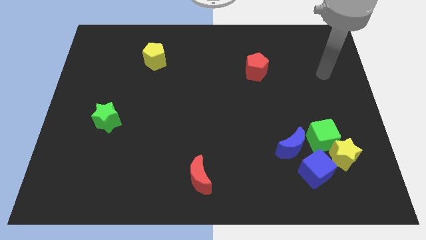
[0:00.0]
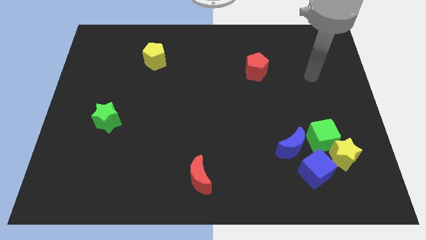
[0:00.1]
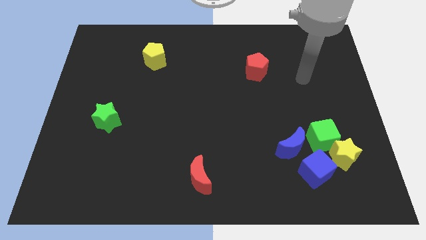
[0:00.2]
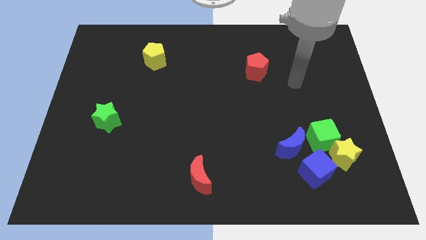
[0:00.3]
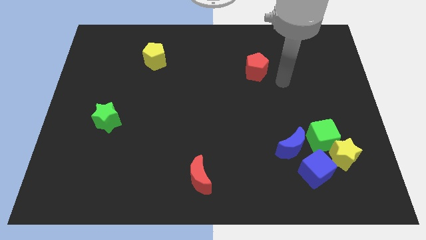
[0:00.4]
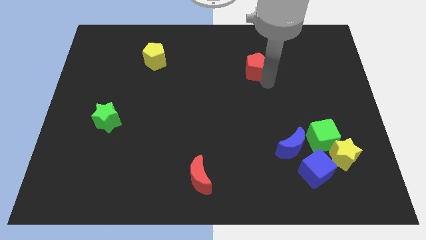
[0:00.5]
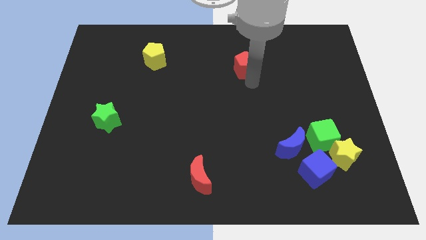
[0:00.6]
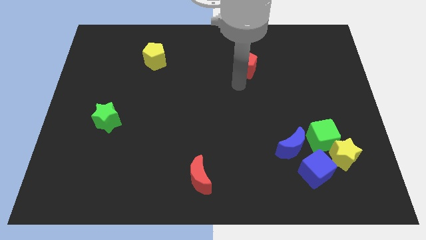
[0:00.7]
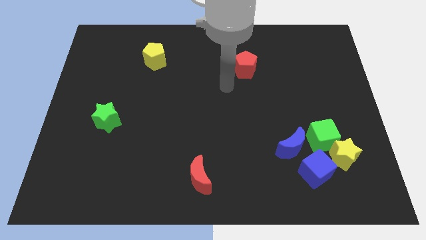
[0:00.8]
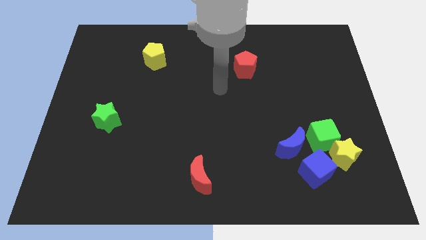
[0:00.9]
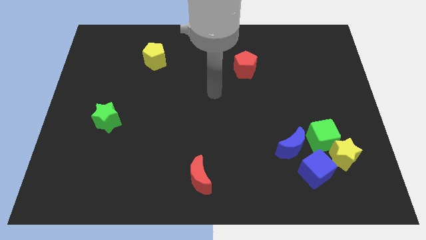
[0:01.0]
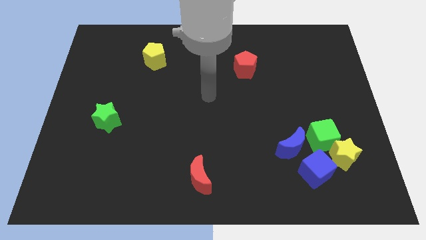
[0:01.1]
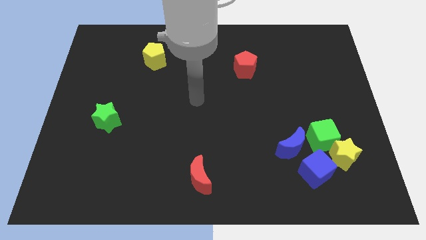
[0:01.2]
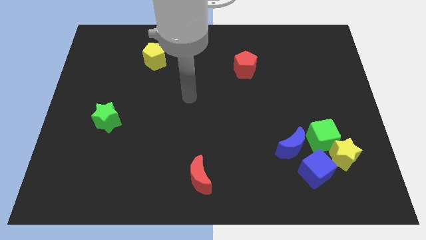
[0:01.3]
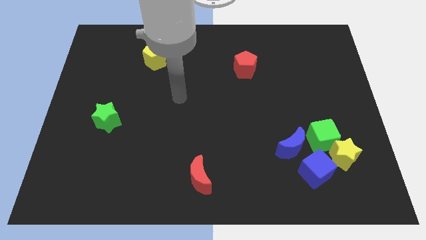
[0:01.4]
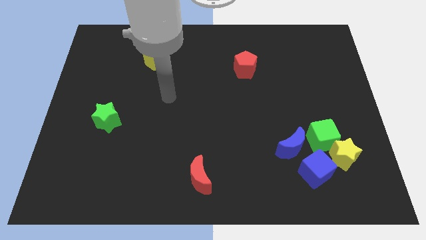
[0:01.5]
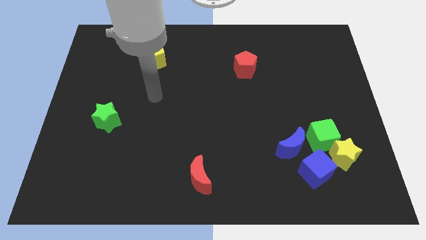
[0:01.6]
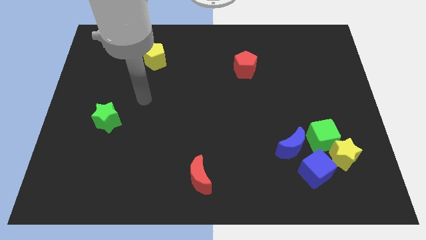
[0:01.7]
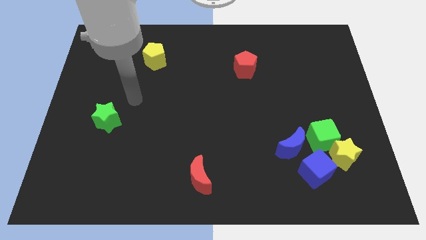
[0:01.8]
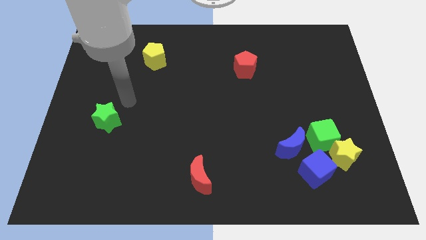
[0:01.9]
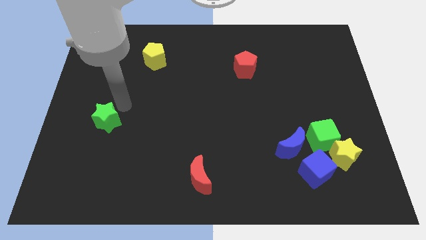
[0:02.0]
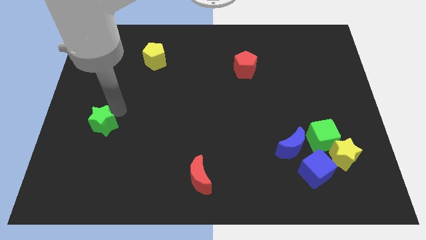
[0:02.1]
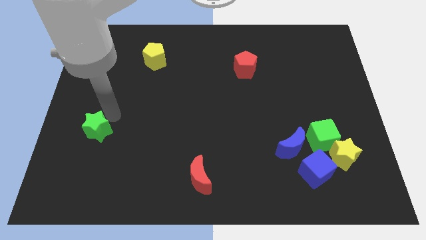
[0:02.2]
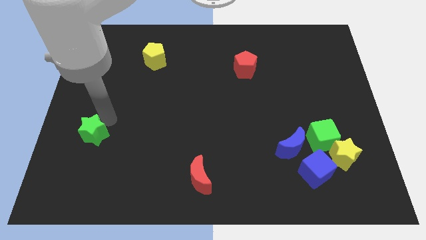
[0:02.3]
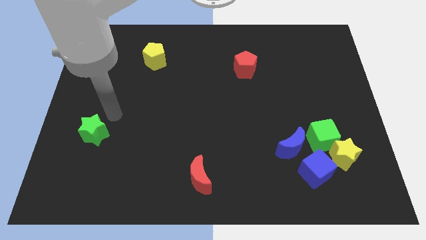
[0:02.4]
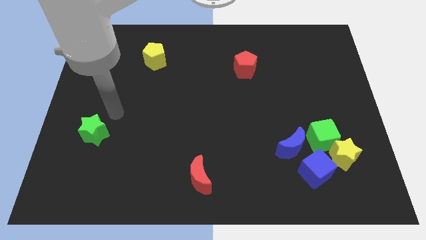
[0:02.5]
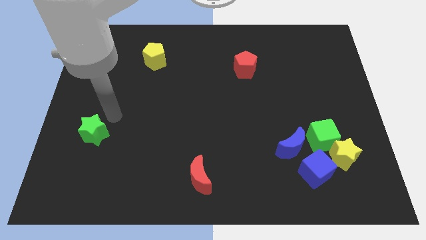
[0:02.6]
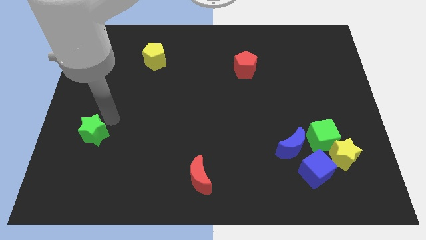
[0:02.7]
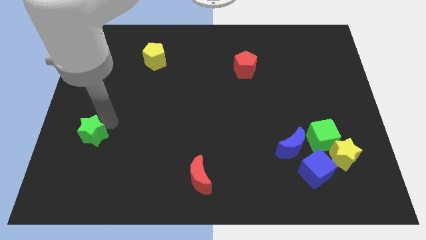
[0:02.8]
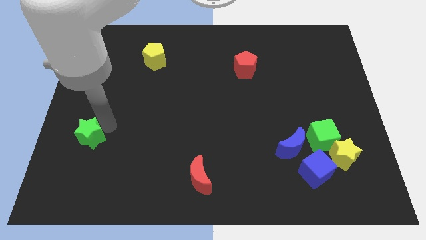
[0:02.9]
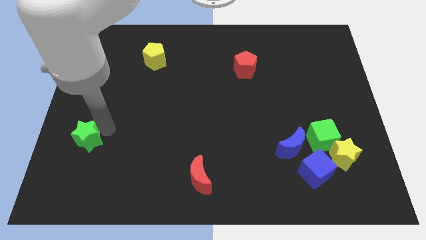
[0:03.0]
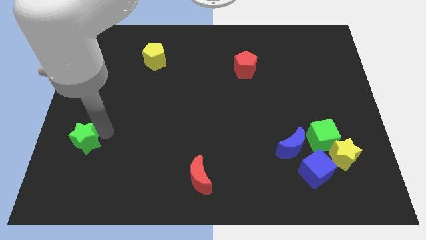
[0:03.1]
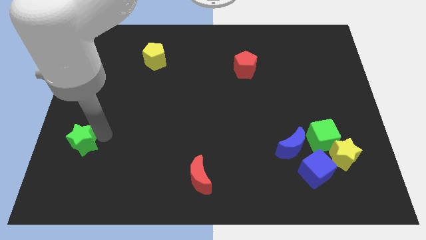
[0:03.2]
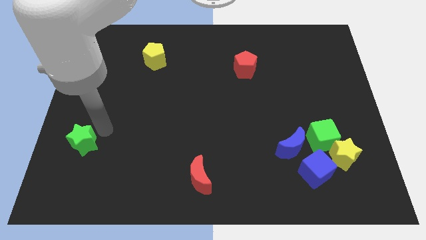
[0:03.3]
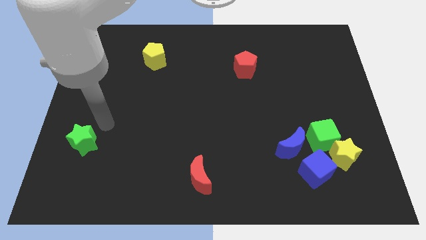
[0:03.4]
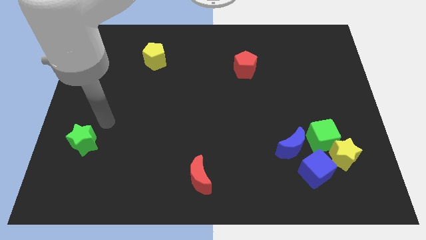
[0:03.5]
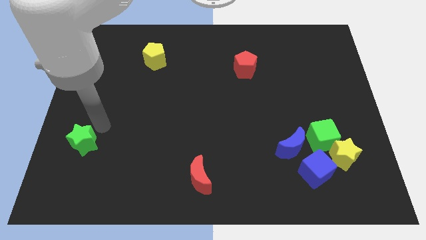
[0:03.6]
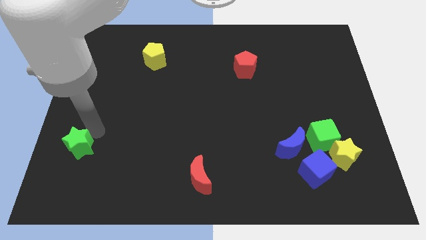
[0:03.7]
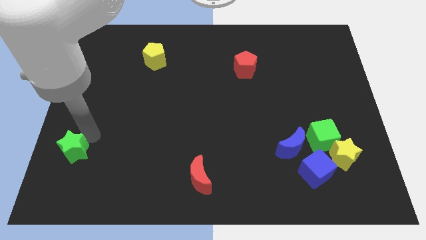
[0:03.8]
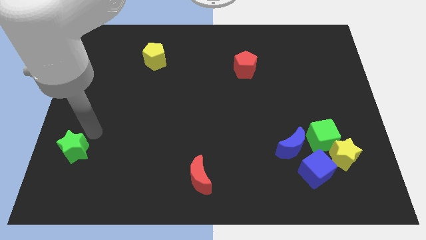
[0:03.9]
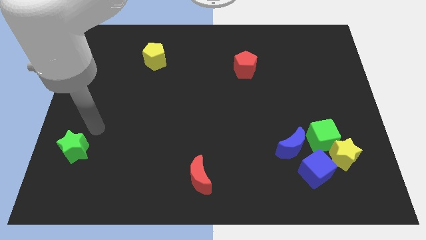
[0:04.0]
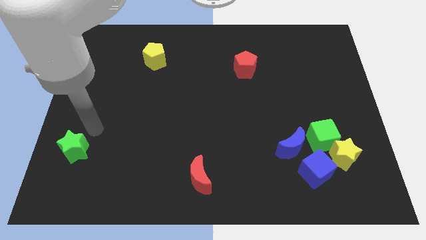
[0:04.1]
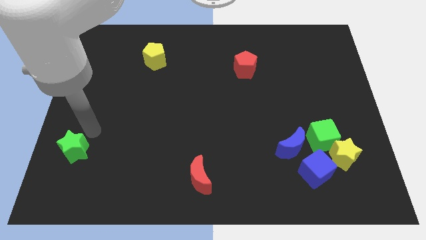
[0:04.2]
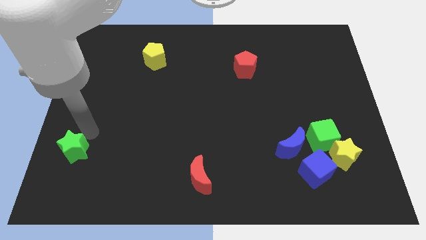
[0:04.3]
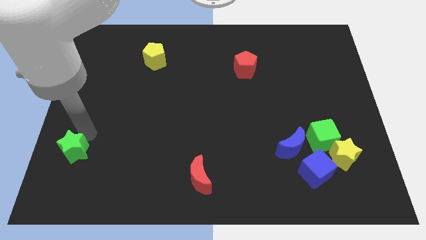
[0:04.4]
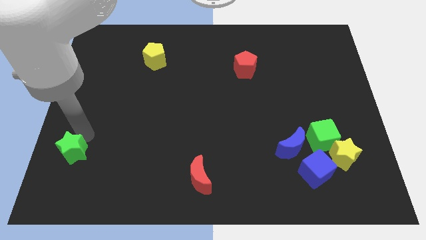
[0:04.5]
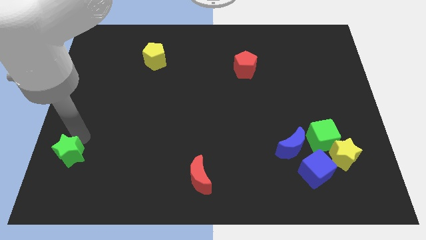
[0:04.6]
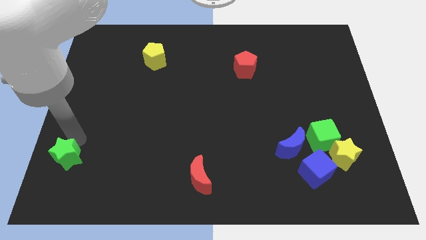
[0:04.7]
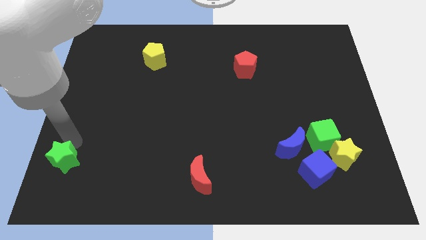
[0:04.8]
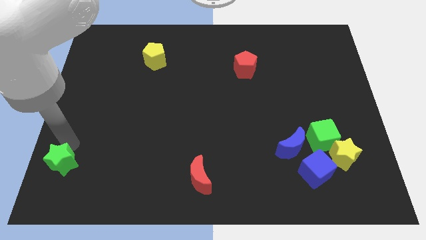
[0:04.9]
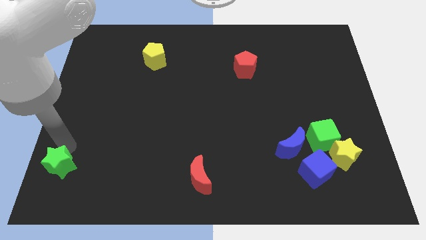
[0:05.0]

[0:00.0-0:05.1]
push the green star to the lower left corner

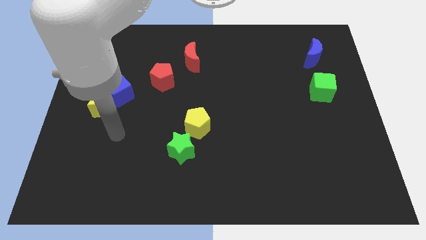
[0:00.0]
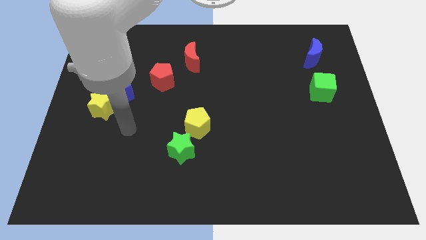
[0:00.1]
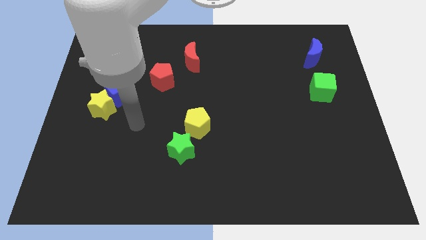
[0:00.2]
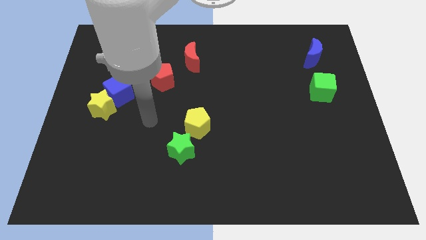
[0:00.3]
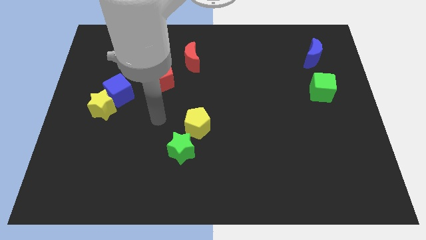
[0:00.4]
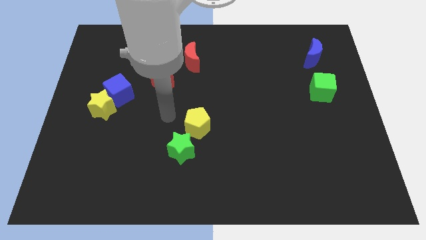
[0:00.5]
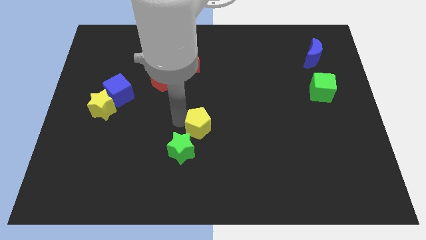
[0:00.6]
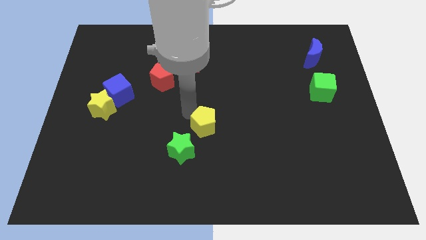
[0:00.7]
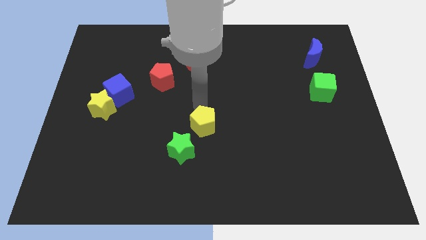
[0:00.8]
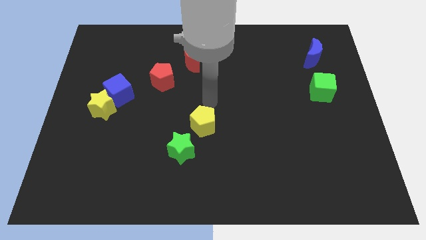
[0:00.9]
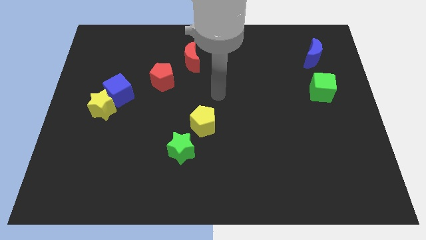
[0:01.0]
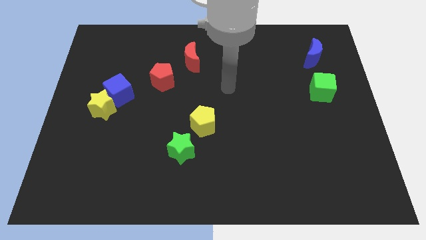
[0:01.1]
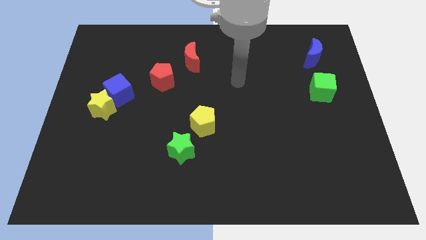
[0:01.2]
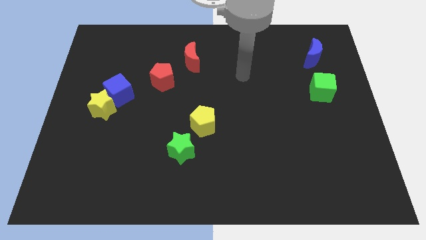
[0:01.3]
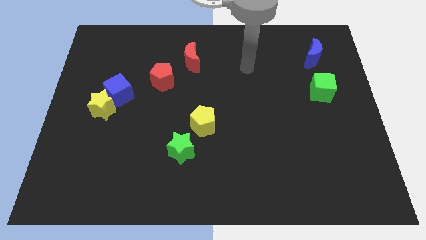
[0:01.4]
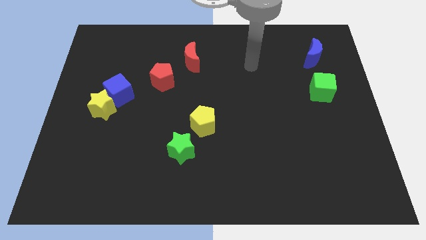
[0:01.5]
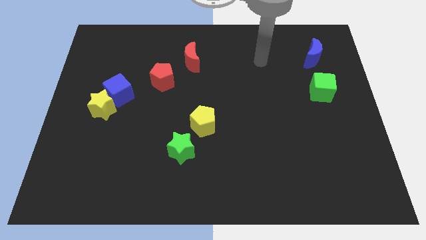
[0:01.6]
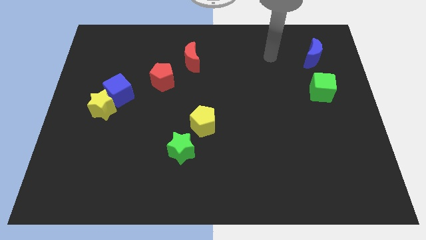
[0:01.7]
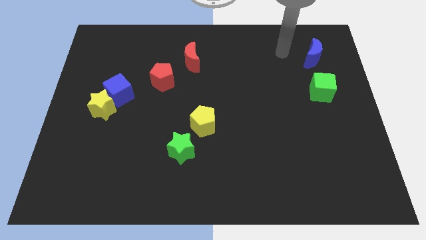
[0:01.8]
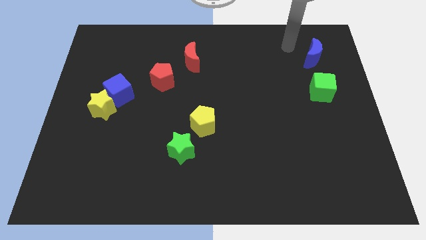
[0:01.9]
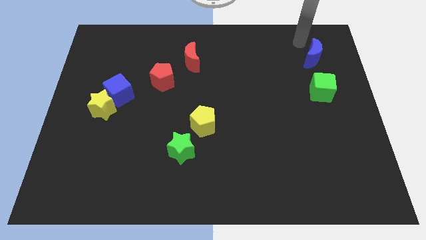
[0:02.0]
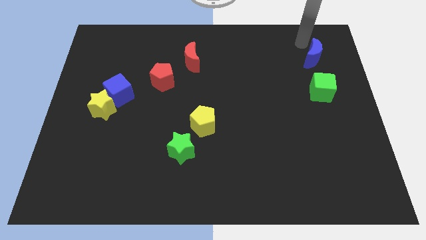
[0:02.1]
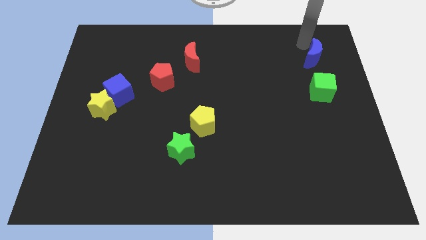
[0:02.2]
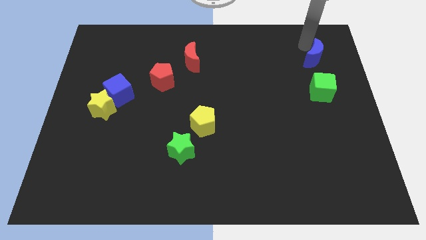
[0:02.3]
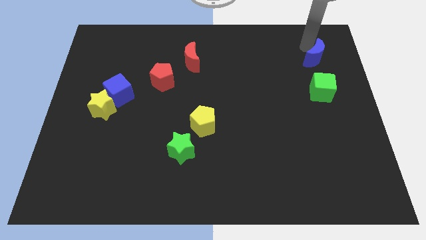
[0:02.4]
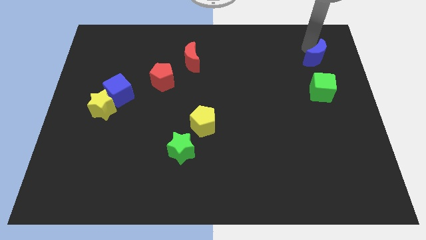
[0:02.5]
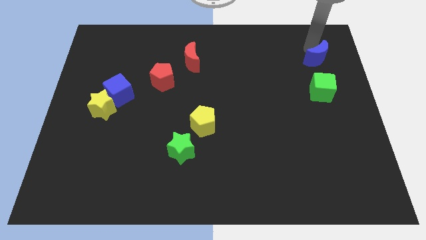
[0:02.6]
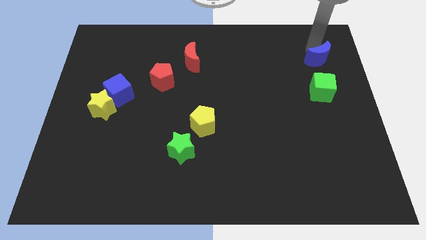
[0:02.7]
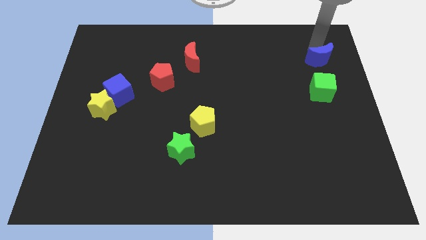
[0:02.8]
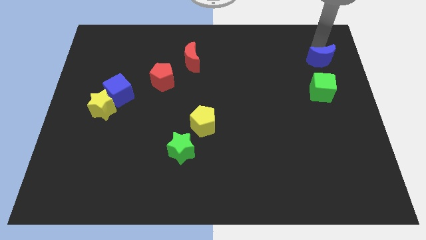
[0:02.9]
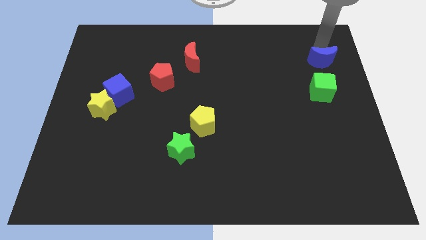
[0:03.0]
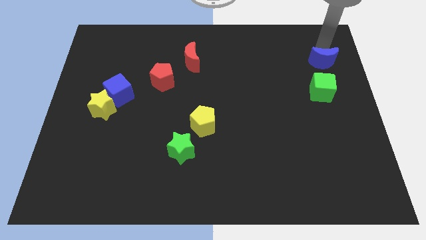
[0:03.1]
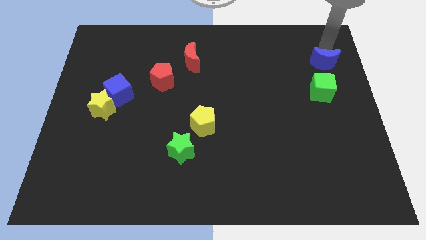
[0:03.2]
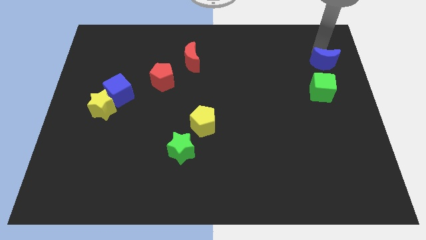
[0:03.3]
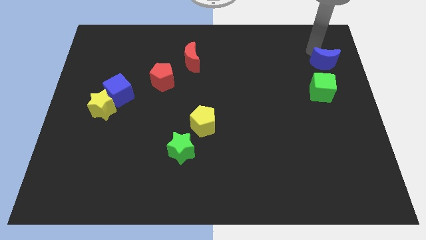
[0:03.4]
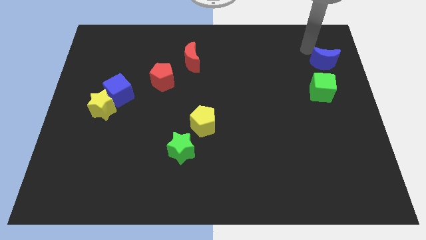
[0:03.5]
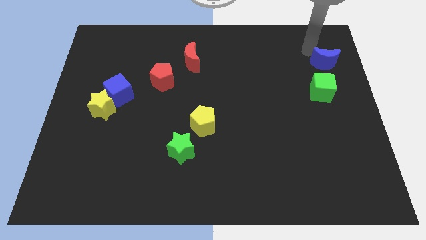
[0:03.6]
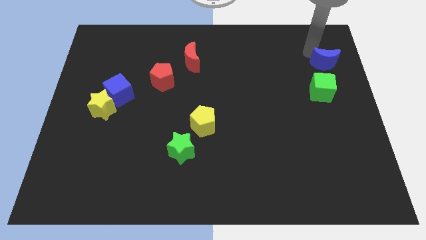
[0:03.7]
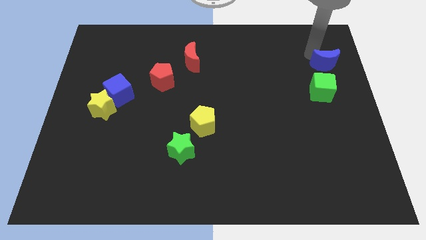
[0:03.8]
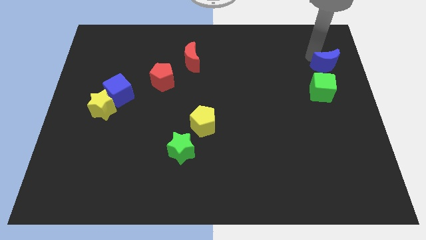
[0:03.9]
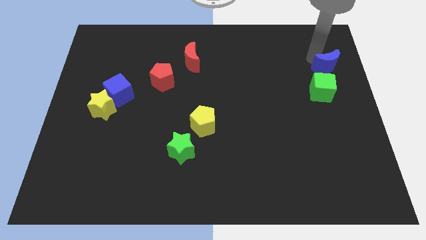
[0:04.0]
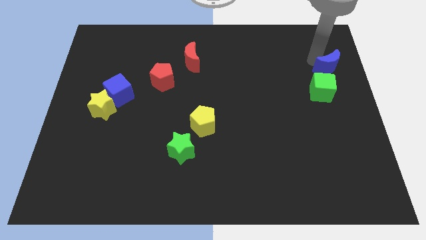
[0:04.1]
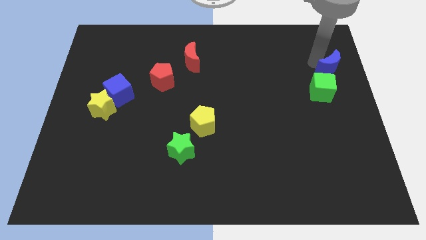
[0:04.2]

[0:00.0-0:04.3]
move the blue moon to the right side
